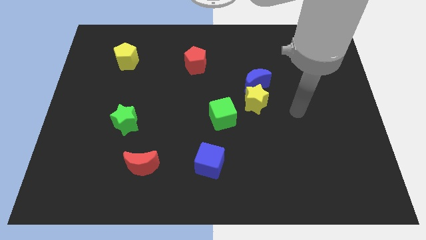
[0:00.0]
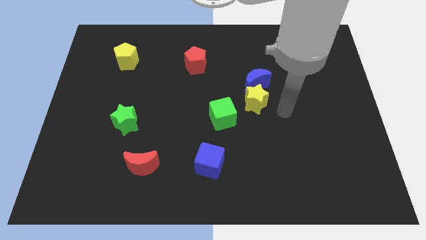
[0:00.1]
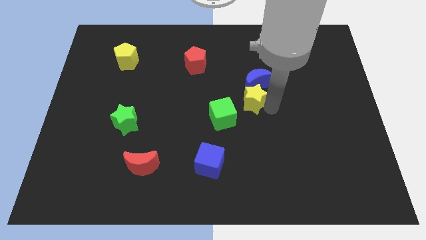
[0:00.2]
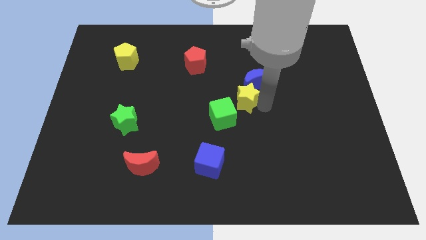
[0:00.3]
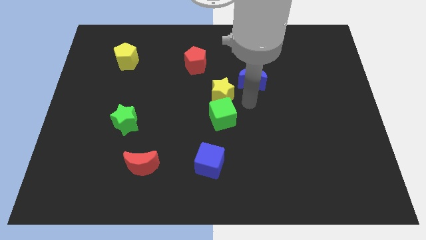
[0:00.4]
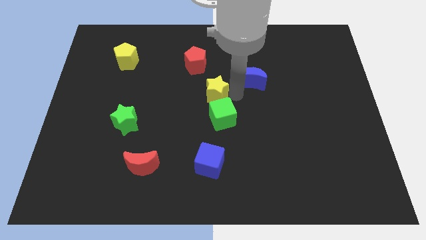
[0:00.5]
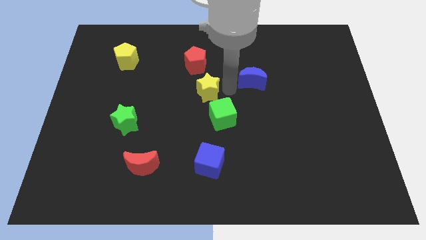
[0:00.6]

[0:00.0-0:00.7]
separate the blue moon from the yellow star

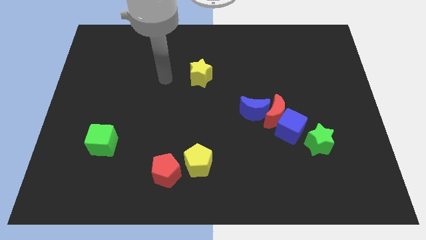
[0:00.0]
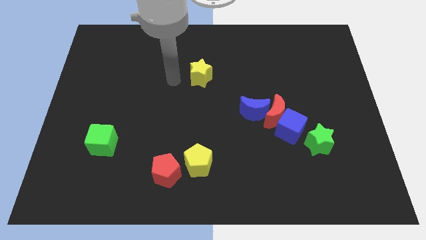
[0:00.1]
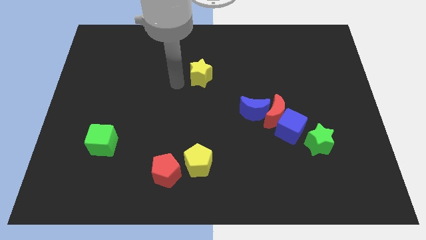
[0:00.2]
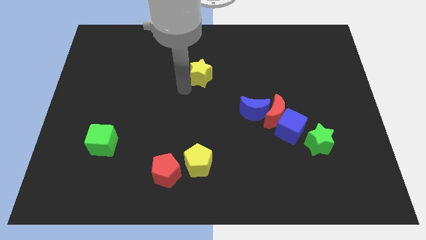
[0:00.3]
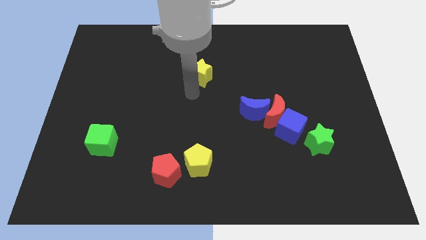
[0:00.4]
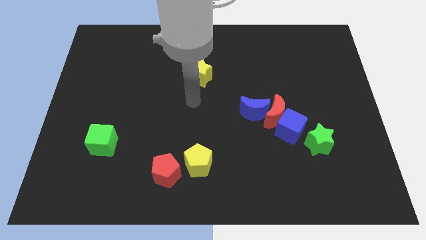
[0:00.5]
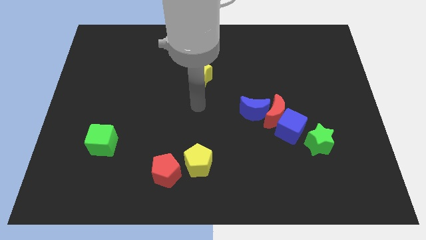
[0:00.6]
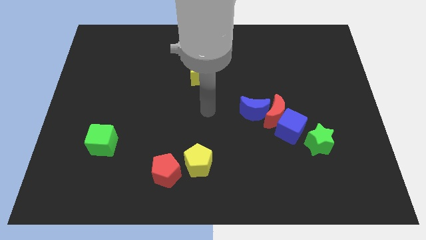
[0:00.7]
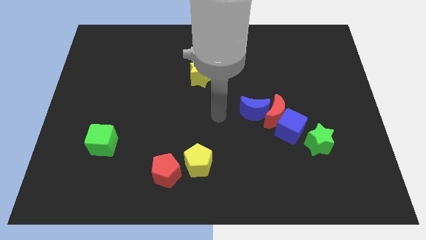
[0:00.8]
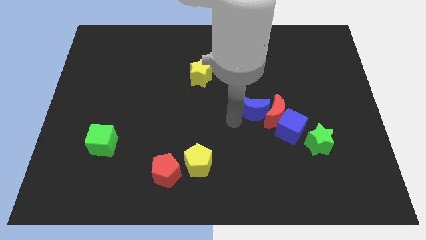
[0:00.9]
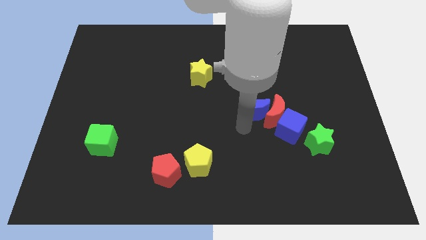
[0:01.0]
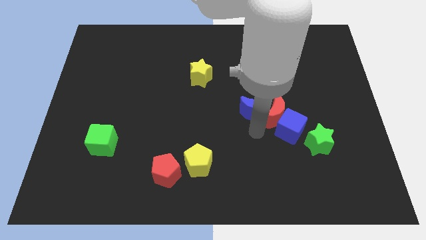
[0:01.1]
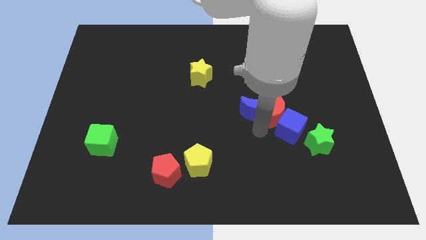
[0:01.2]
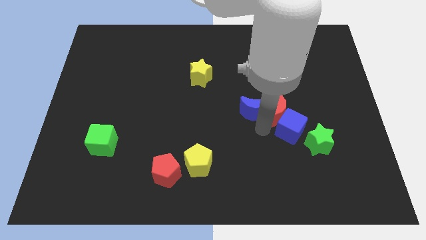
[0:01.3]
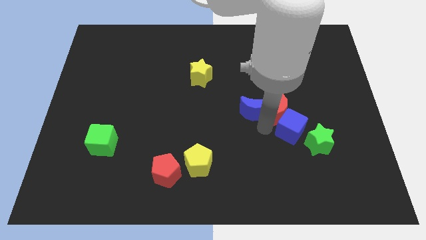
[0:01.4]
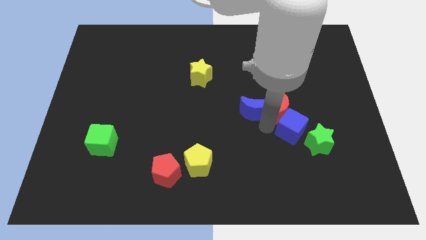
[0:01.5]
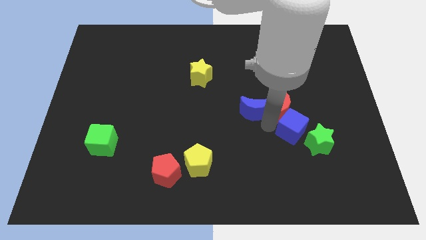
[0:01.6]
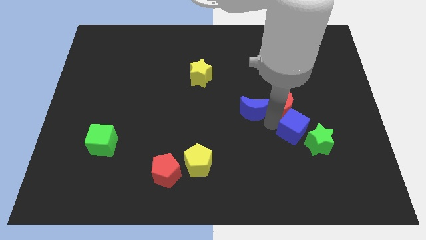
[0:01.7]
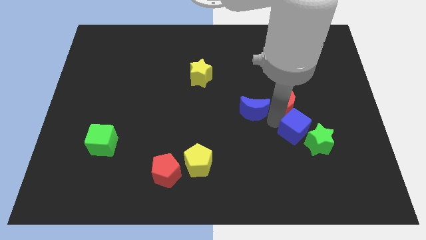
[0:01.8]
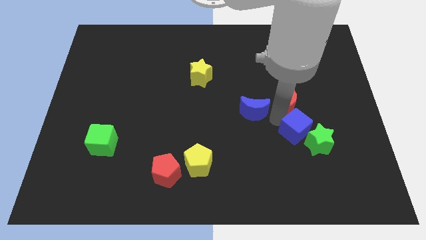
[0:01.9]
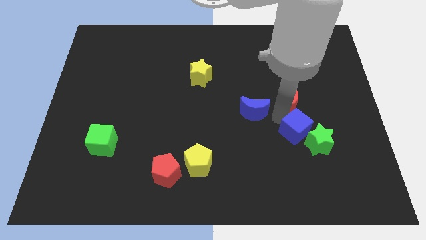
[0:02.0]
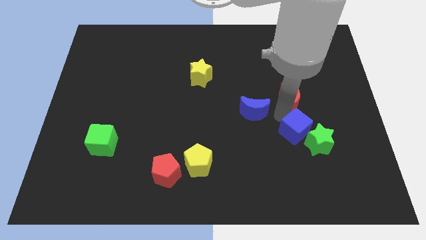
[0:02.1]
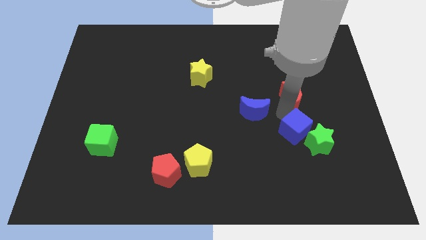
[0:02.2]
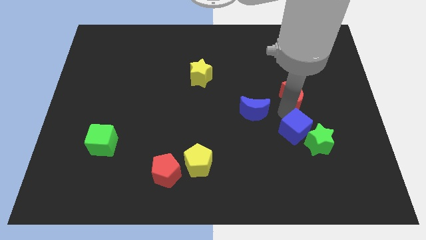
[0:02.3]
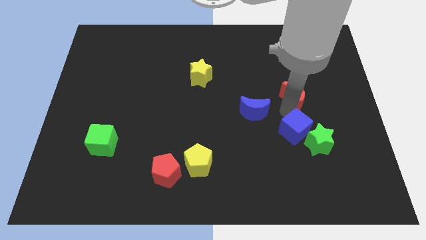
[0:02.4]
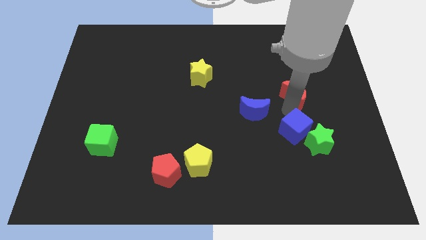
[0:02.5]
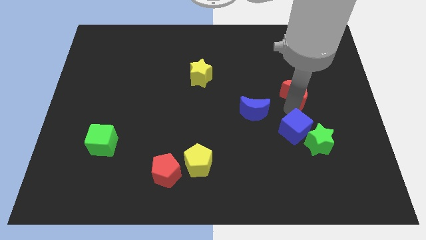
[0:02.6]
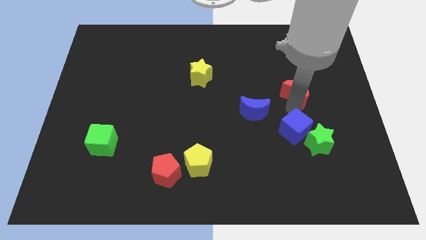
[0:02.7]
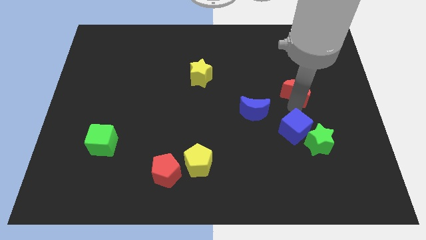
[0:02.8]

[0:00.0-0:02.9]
pull the red moon apart from the blue cube and blue moon

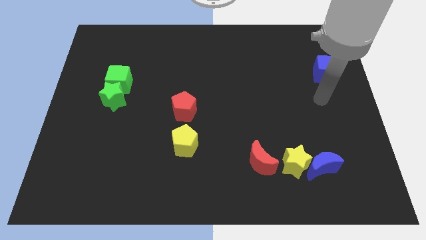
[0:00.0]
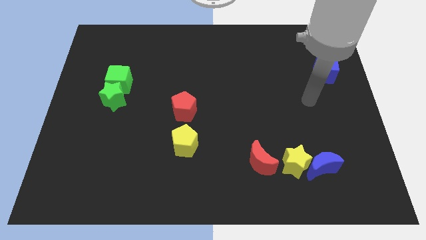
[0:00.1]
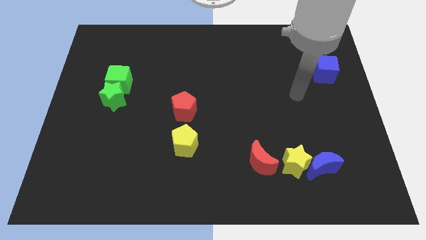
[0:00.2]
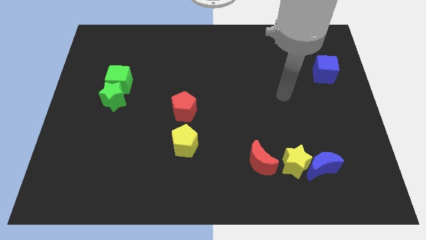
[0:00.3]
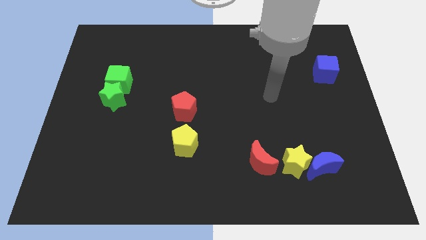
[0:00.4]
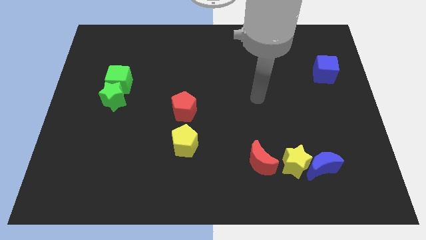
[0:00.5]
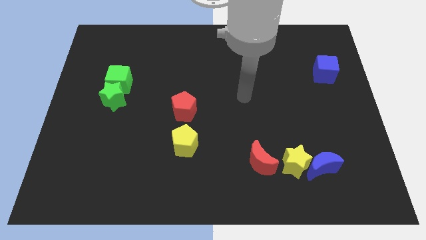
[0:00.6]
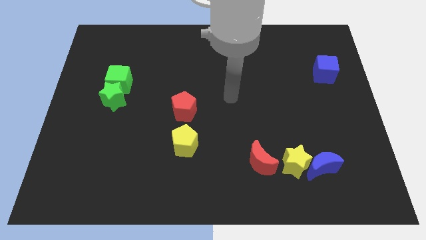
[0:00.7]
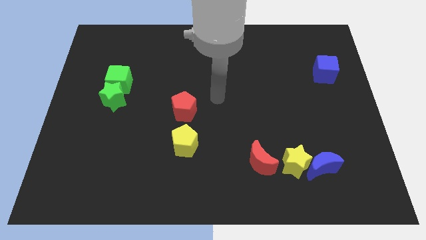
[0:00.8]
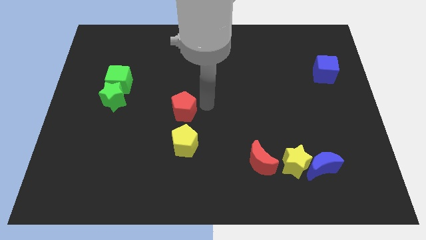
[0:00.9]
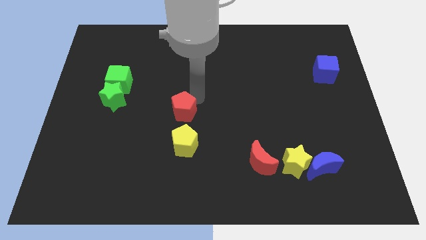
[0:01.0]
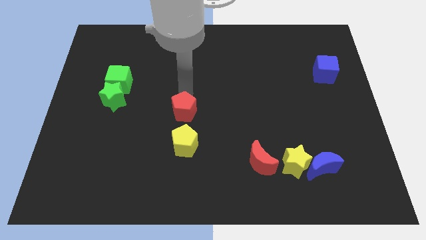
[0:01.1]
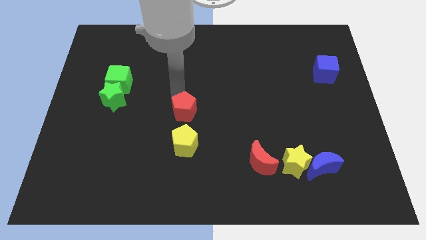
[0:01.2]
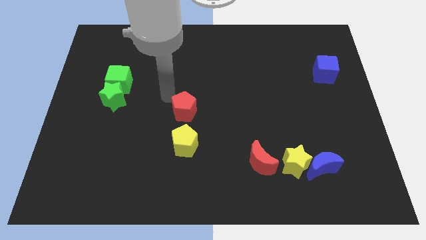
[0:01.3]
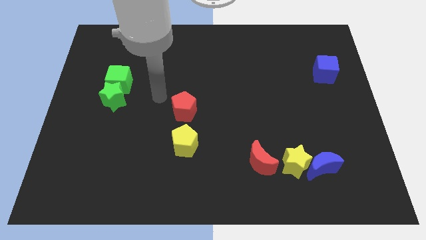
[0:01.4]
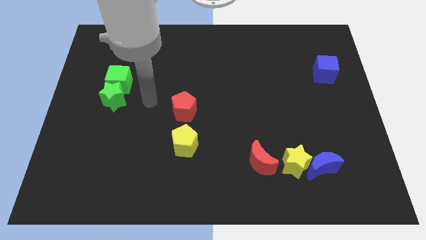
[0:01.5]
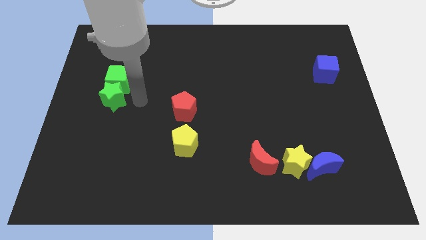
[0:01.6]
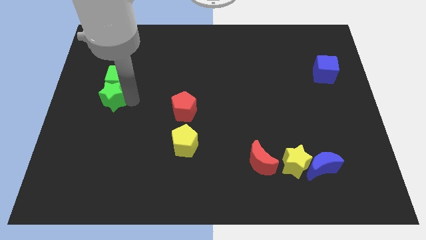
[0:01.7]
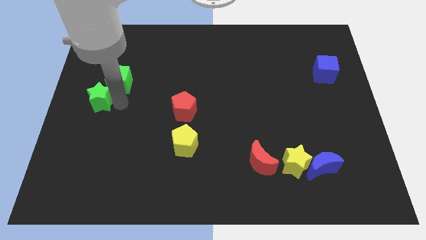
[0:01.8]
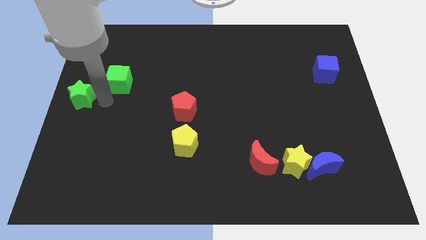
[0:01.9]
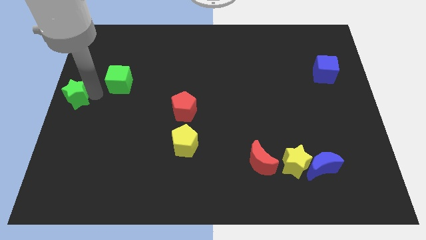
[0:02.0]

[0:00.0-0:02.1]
separate the green cube from the green star

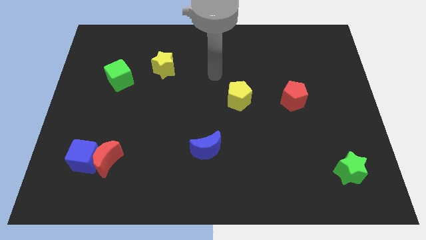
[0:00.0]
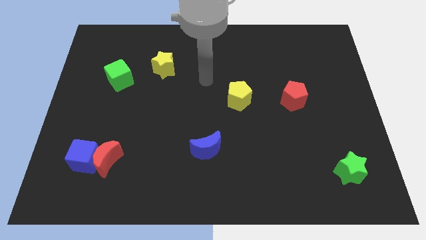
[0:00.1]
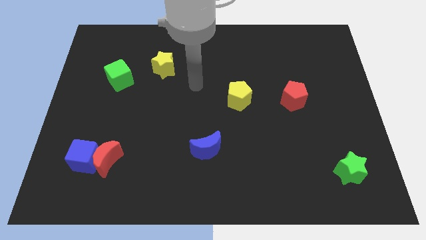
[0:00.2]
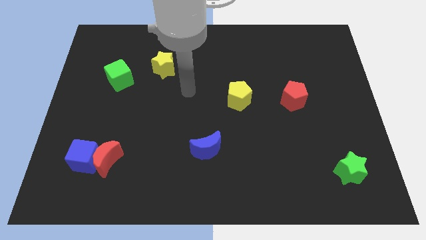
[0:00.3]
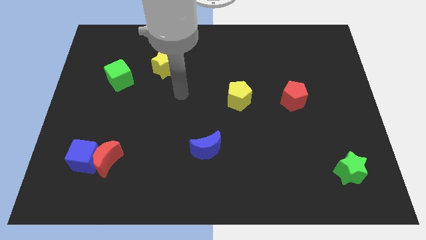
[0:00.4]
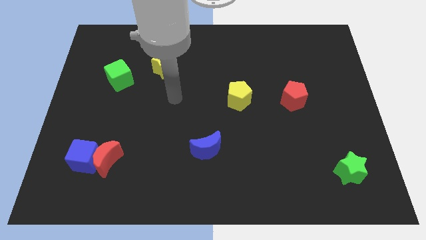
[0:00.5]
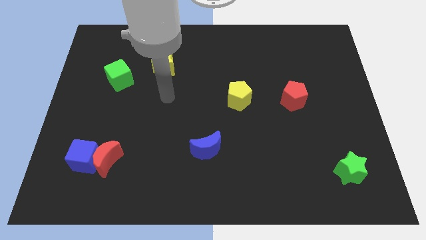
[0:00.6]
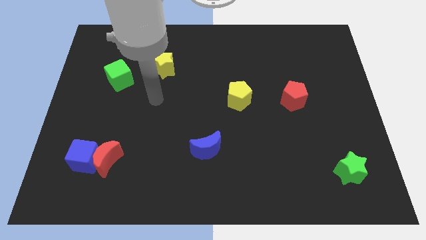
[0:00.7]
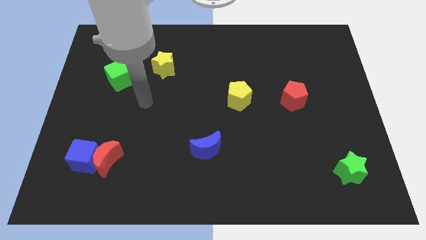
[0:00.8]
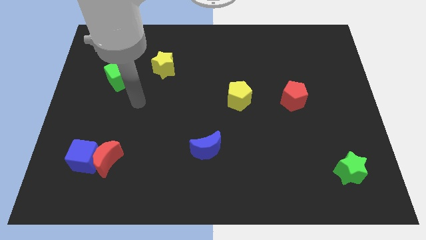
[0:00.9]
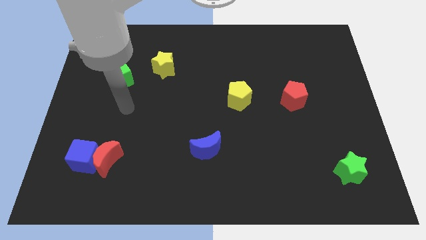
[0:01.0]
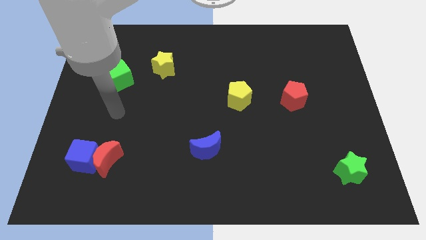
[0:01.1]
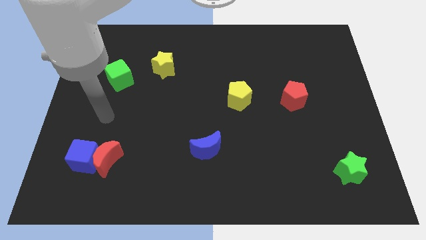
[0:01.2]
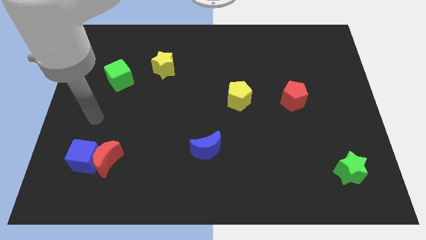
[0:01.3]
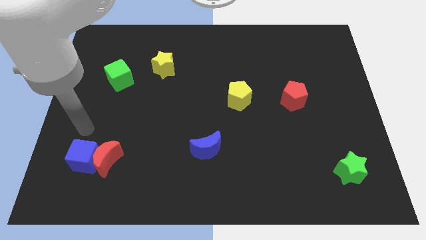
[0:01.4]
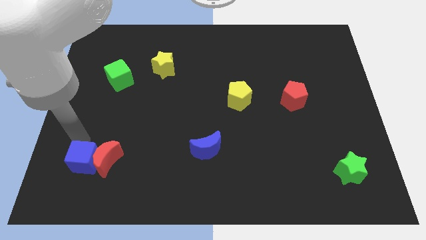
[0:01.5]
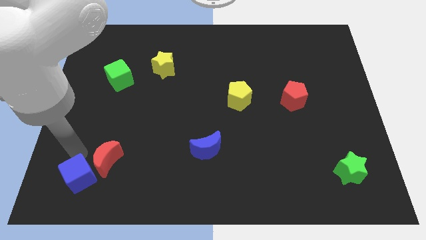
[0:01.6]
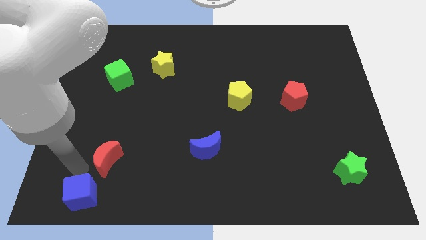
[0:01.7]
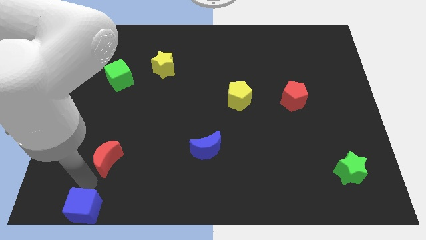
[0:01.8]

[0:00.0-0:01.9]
move the red moon away from the blue cube

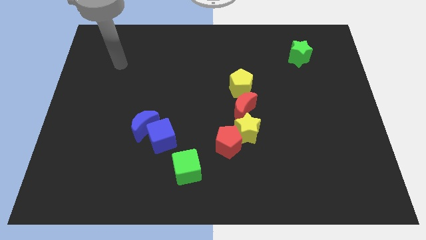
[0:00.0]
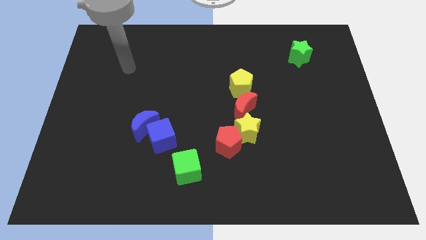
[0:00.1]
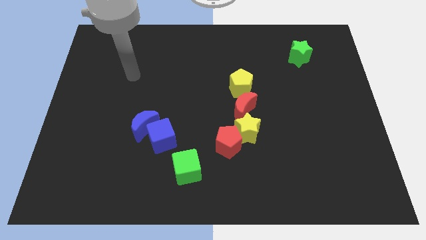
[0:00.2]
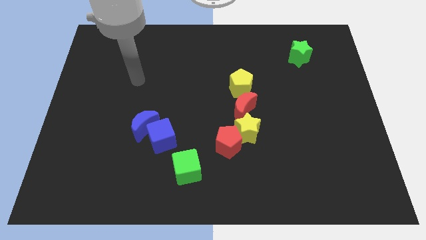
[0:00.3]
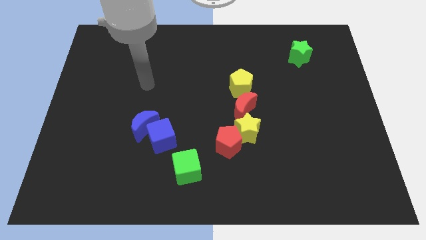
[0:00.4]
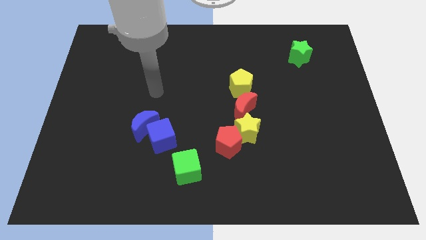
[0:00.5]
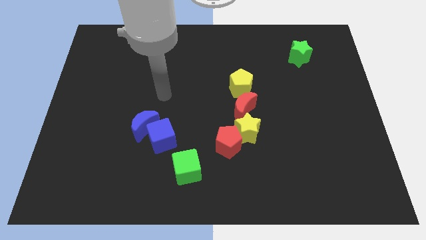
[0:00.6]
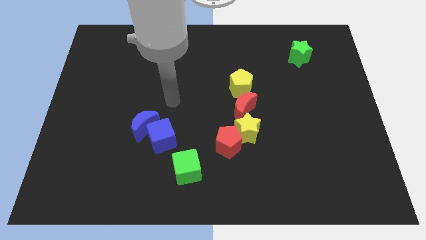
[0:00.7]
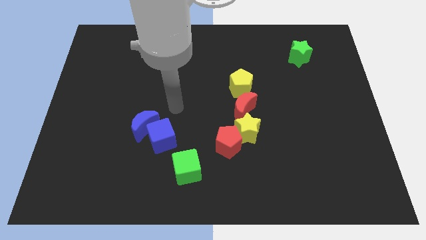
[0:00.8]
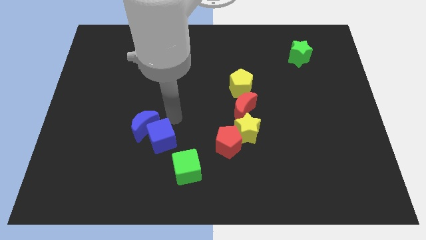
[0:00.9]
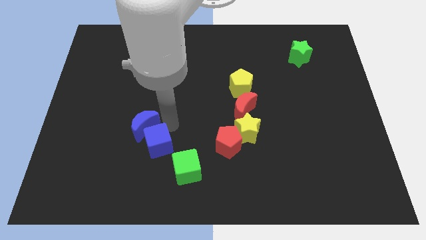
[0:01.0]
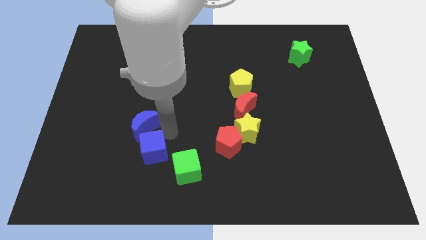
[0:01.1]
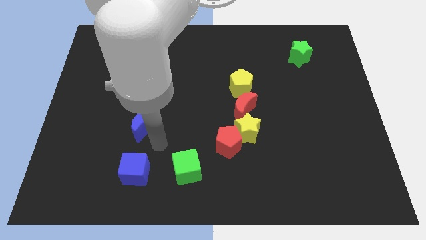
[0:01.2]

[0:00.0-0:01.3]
move the blue moon away from the blue cube

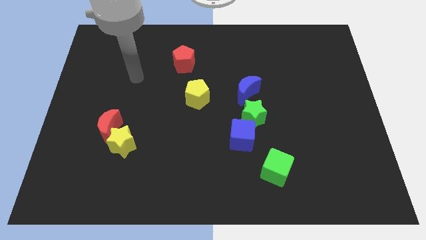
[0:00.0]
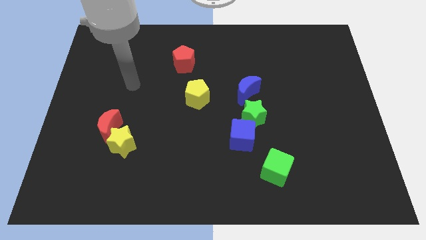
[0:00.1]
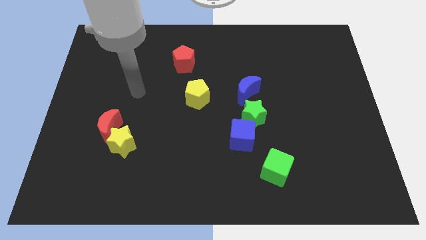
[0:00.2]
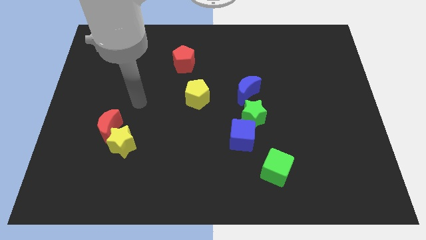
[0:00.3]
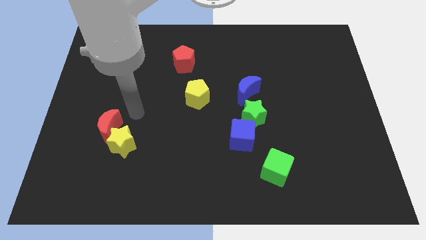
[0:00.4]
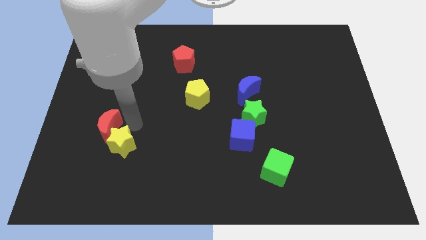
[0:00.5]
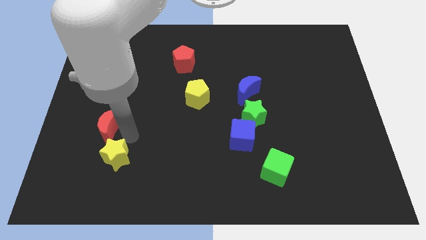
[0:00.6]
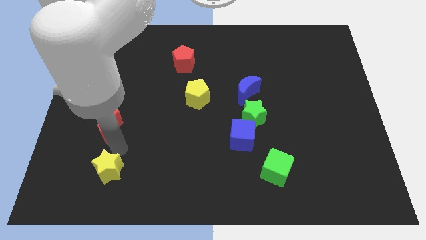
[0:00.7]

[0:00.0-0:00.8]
separate the red moon from the yellow star
